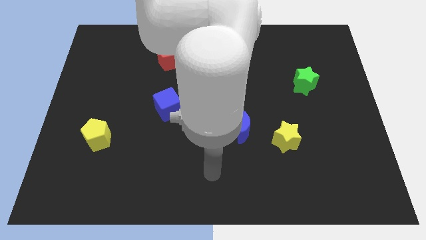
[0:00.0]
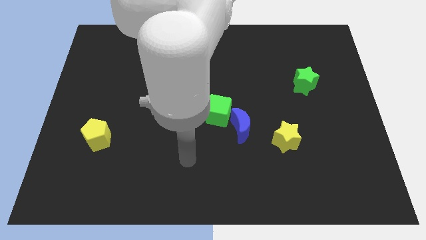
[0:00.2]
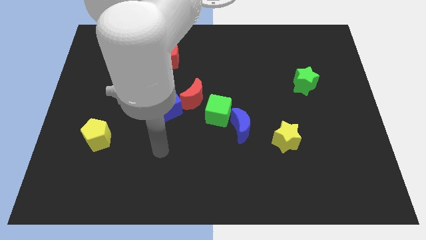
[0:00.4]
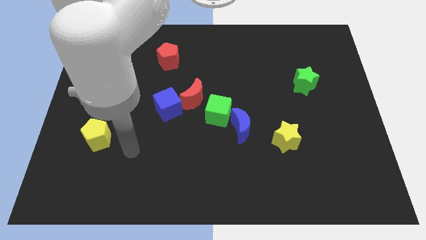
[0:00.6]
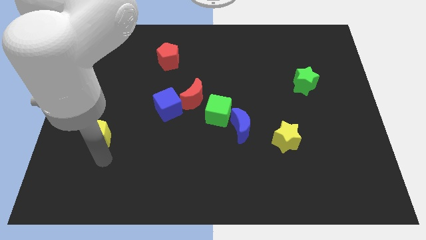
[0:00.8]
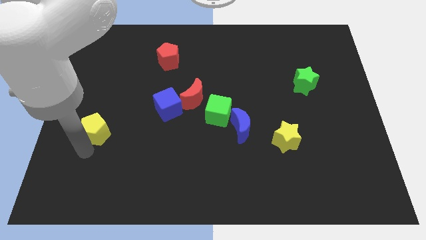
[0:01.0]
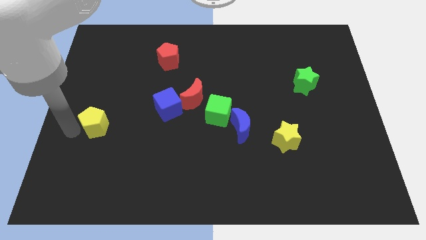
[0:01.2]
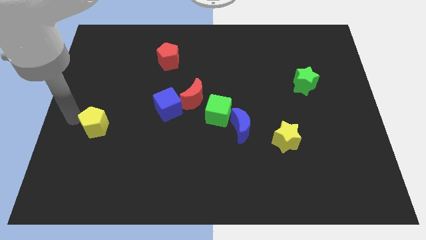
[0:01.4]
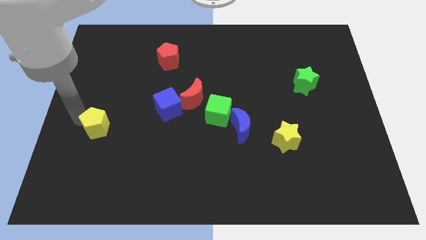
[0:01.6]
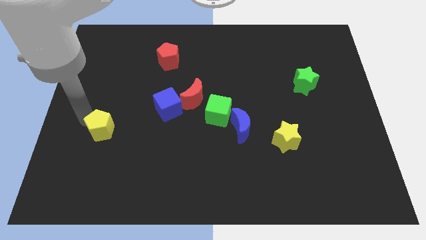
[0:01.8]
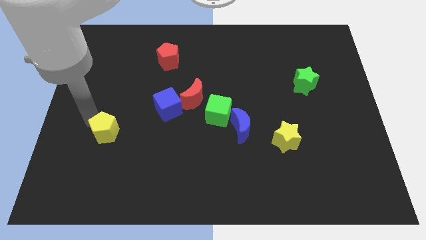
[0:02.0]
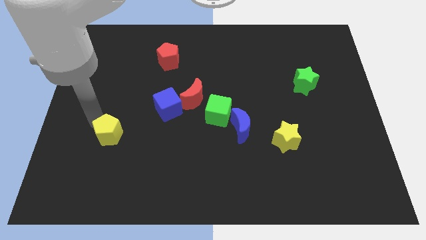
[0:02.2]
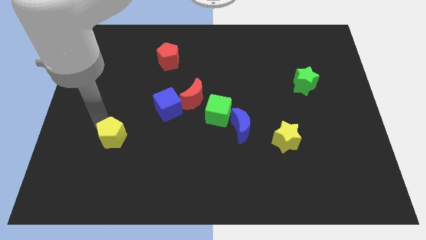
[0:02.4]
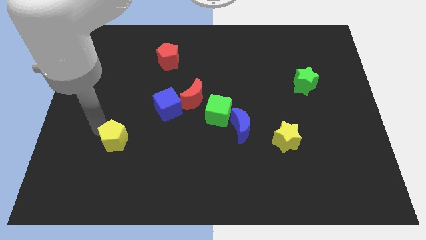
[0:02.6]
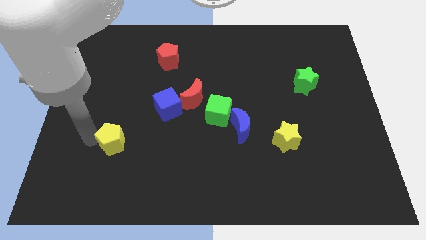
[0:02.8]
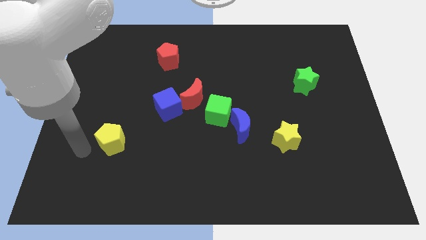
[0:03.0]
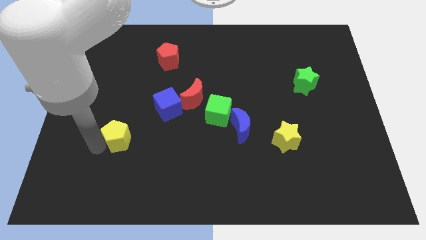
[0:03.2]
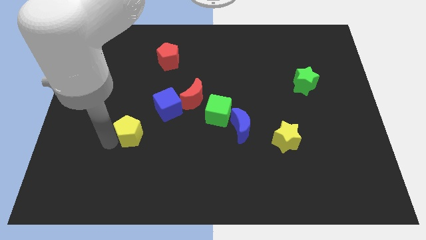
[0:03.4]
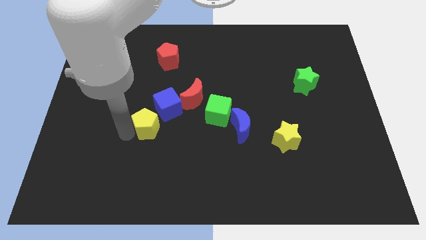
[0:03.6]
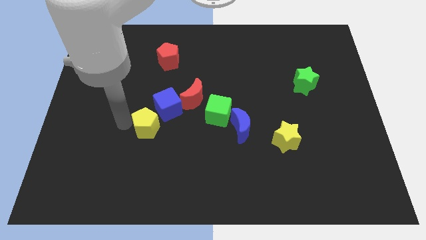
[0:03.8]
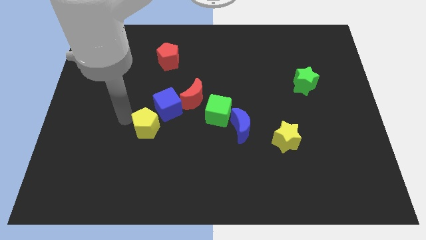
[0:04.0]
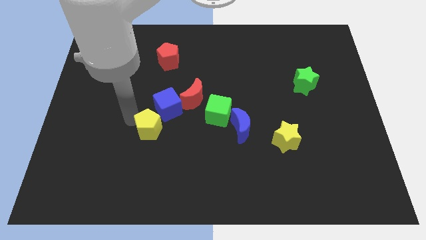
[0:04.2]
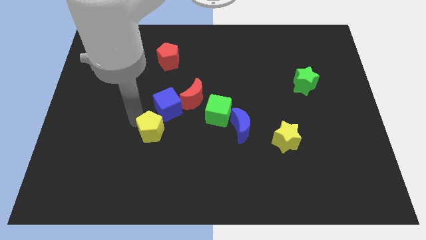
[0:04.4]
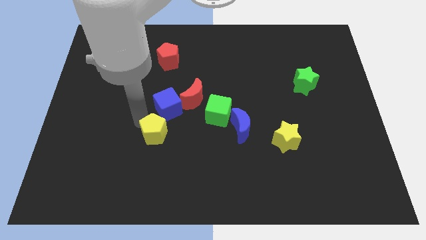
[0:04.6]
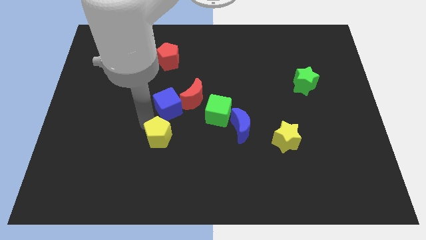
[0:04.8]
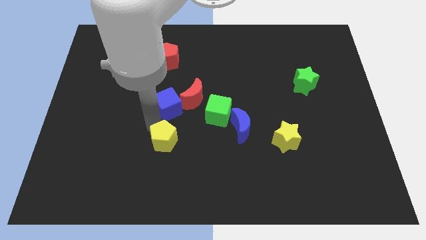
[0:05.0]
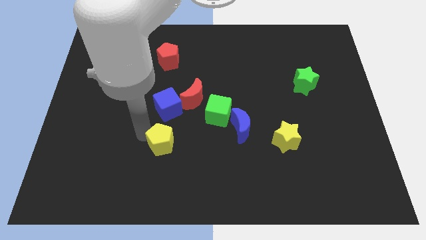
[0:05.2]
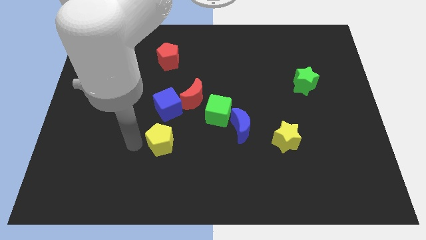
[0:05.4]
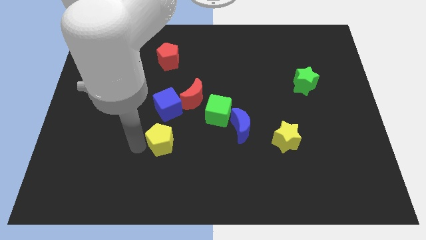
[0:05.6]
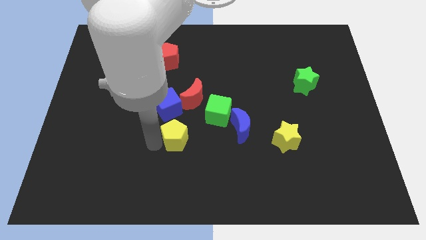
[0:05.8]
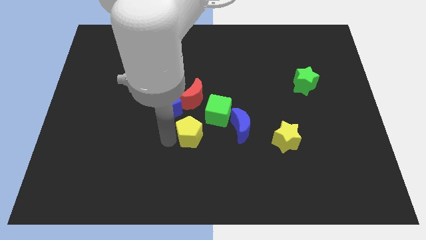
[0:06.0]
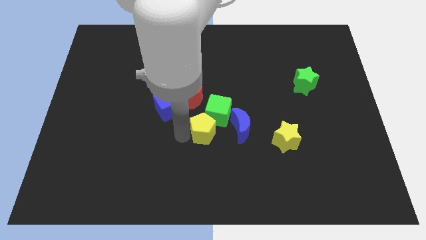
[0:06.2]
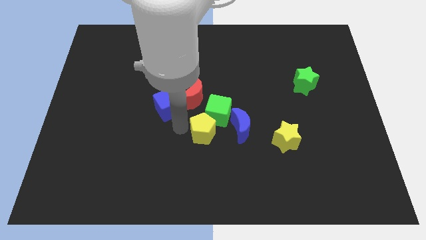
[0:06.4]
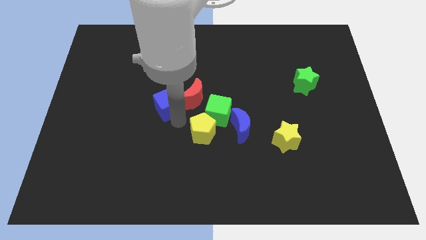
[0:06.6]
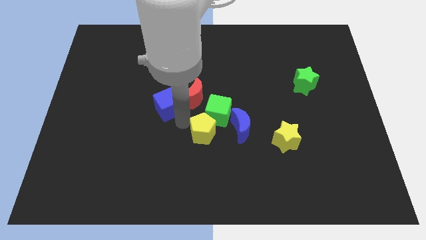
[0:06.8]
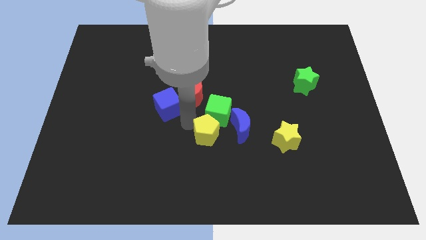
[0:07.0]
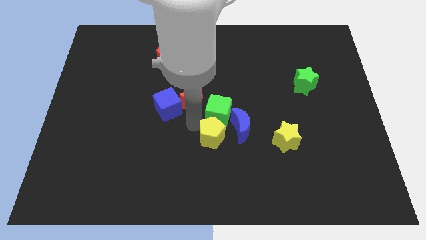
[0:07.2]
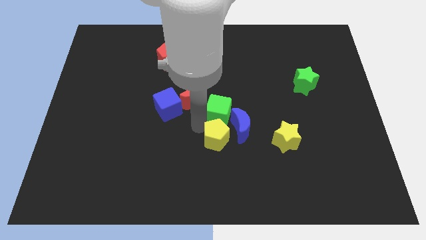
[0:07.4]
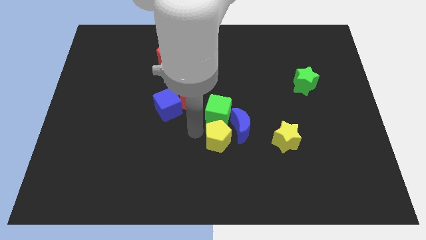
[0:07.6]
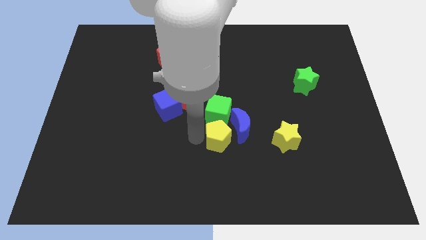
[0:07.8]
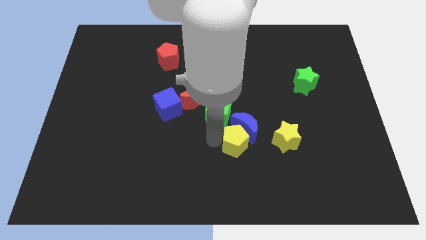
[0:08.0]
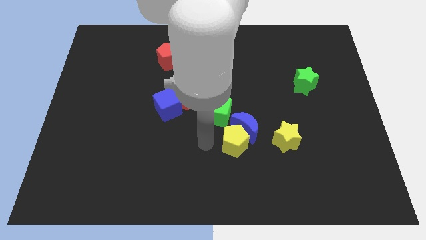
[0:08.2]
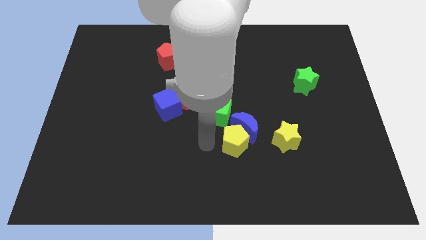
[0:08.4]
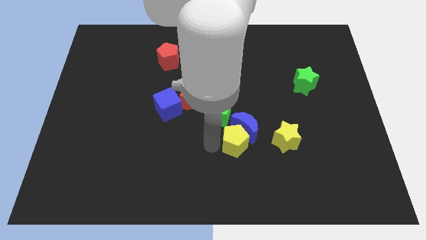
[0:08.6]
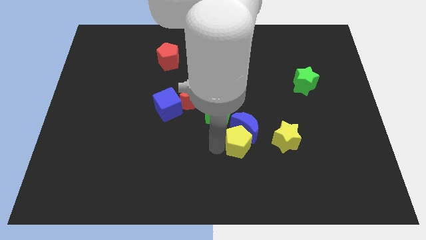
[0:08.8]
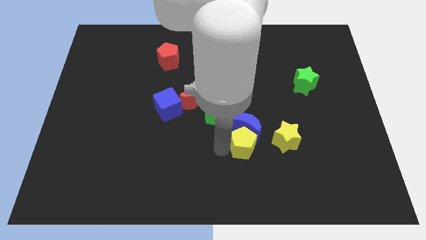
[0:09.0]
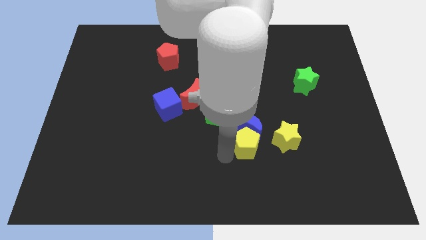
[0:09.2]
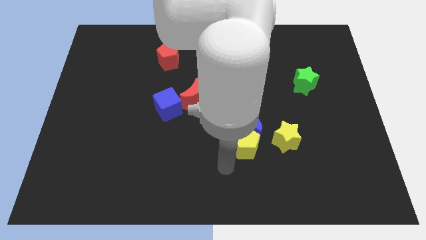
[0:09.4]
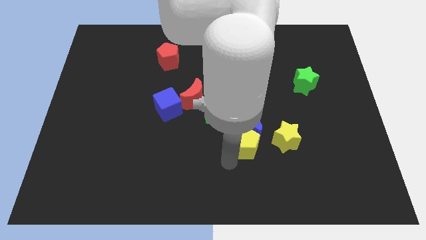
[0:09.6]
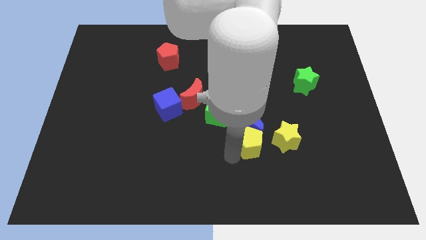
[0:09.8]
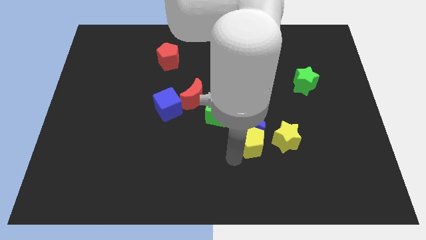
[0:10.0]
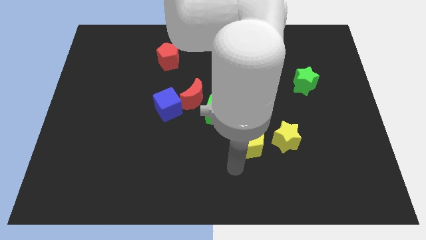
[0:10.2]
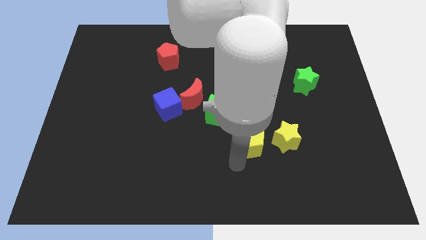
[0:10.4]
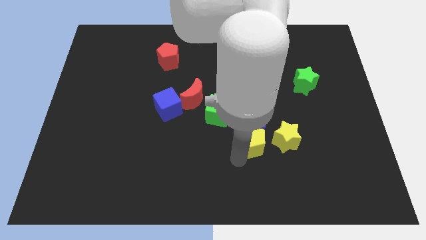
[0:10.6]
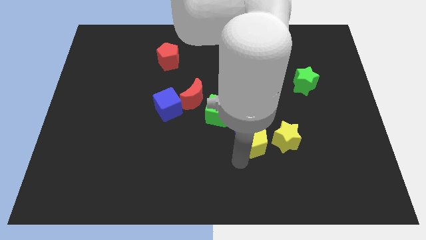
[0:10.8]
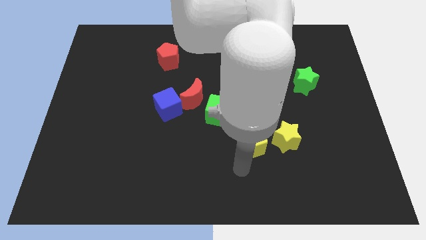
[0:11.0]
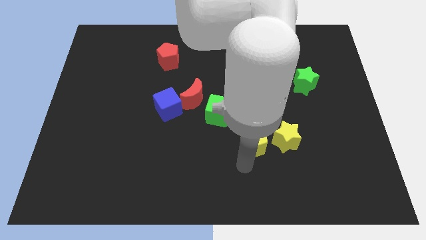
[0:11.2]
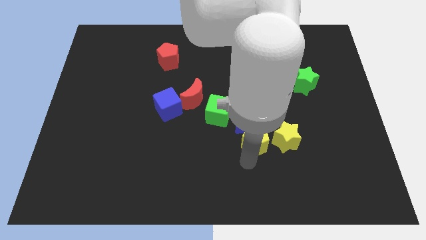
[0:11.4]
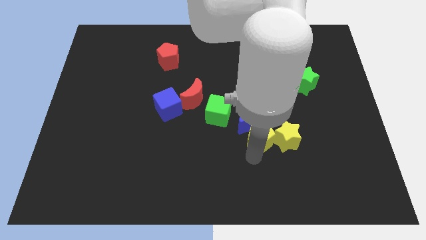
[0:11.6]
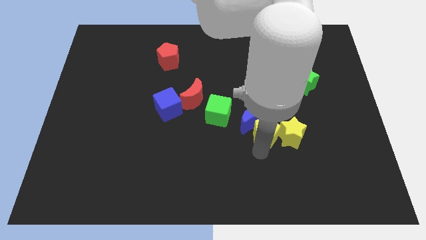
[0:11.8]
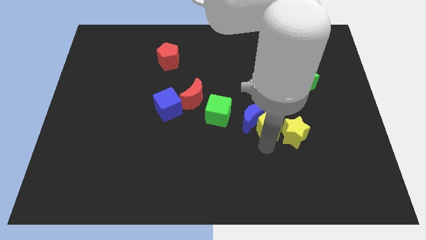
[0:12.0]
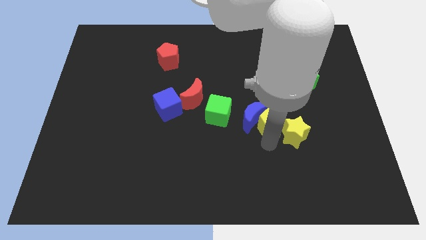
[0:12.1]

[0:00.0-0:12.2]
push the yellow pentagon to the top right side of the blue moon

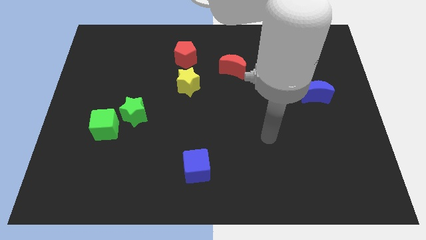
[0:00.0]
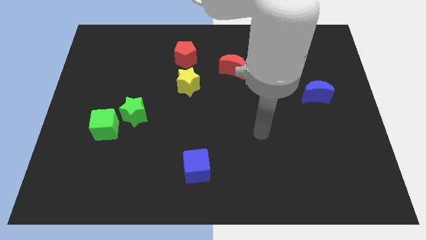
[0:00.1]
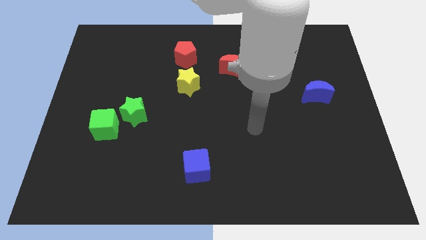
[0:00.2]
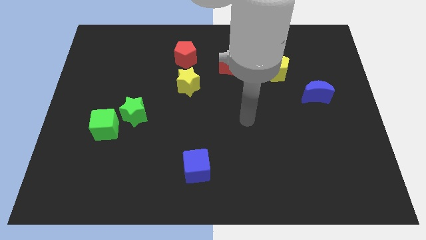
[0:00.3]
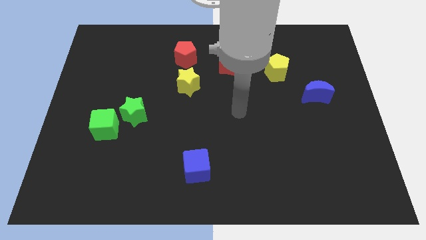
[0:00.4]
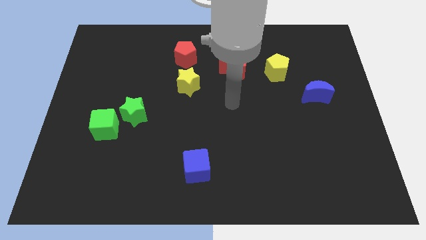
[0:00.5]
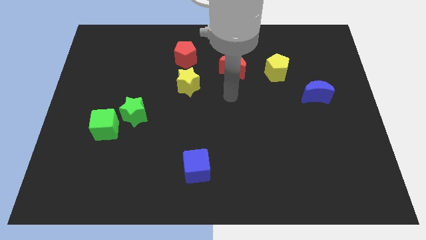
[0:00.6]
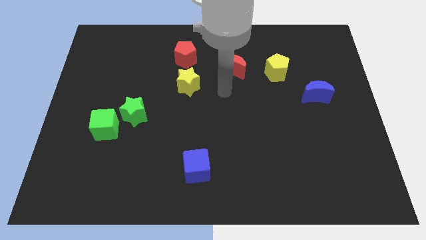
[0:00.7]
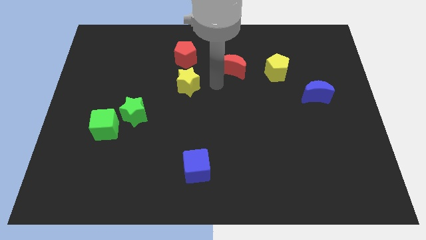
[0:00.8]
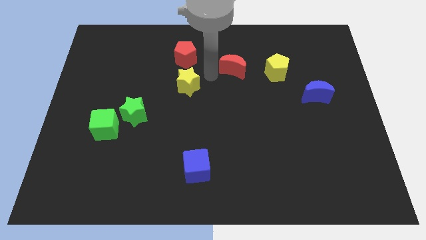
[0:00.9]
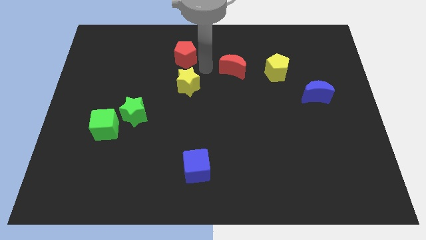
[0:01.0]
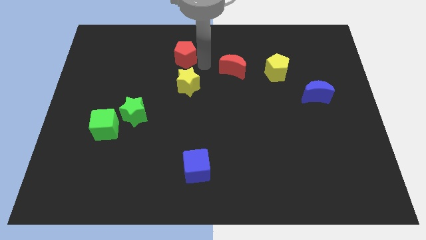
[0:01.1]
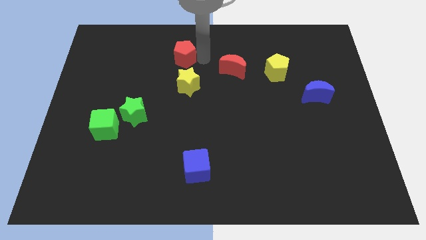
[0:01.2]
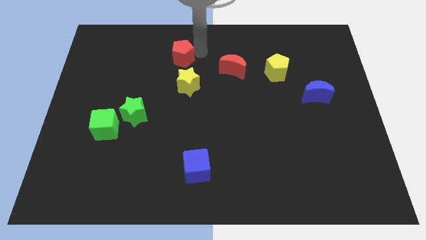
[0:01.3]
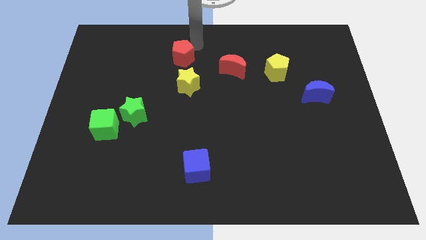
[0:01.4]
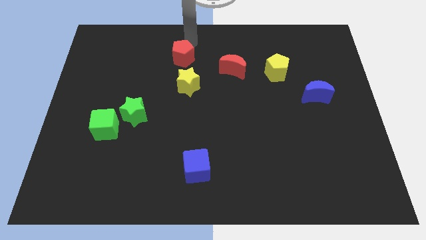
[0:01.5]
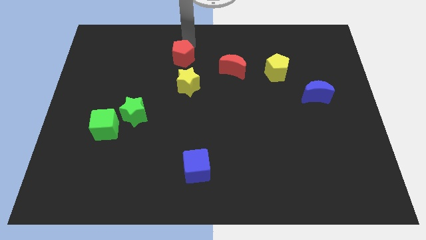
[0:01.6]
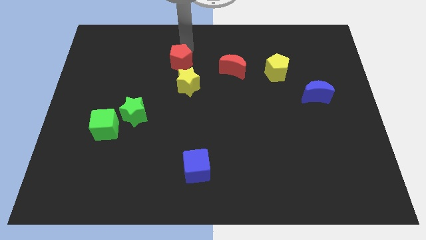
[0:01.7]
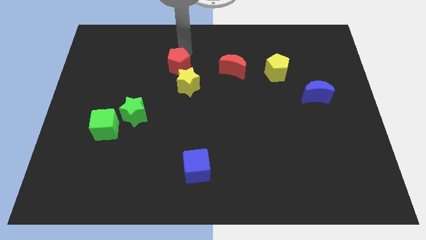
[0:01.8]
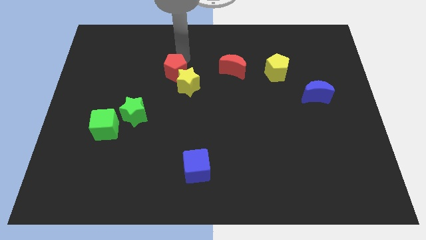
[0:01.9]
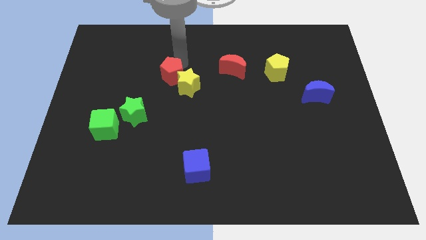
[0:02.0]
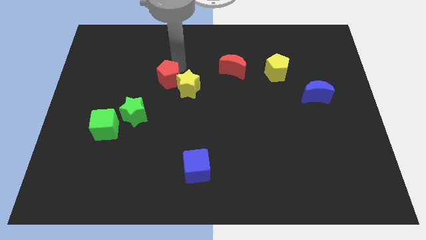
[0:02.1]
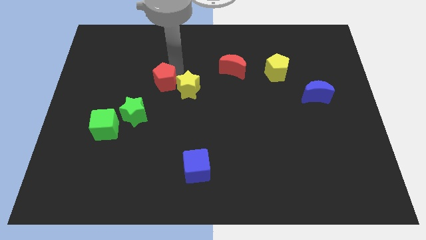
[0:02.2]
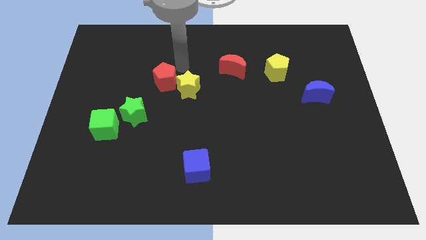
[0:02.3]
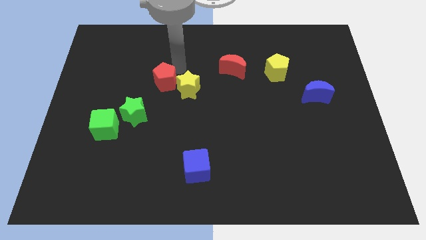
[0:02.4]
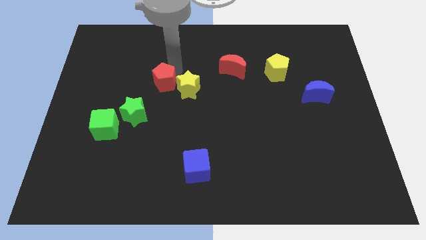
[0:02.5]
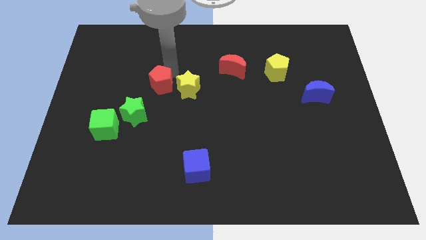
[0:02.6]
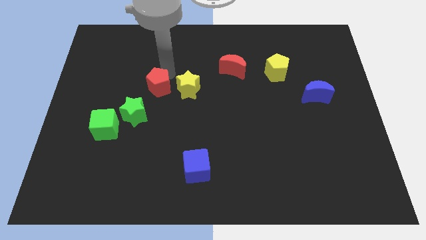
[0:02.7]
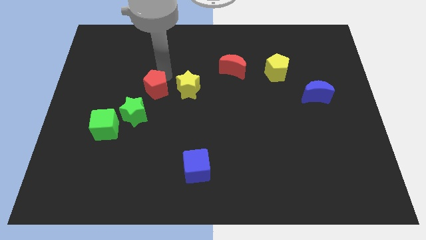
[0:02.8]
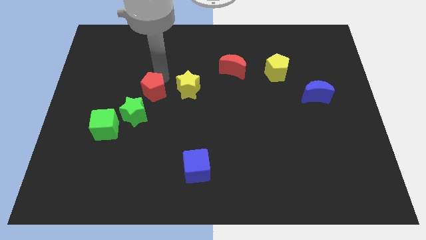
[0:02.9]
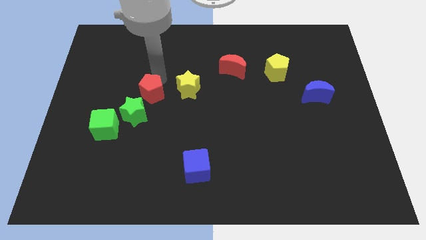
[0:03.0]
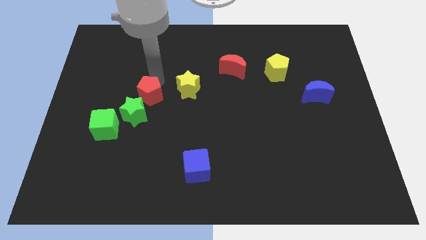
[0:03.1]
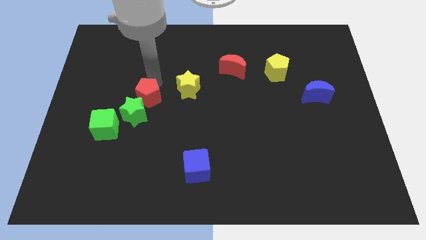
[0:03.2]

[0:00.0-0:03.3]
push the red pentagon diagonally up and to the right of the green cube
